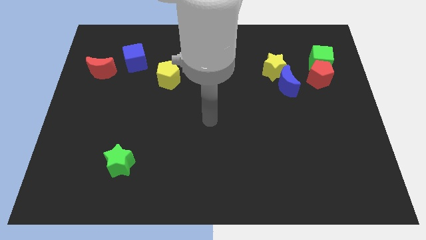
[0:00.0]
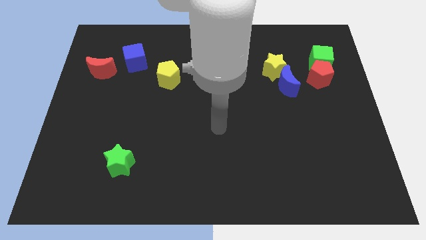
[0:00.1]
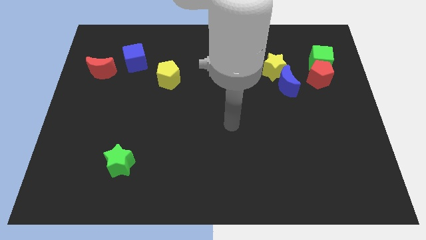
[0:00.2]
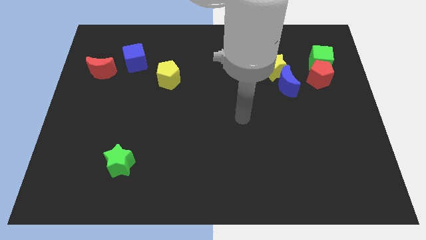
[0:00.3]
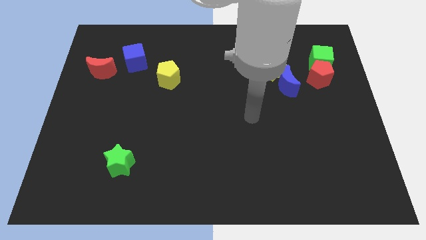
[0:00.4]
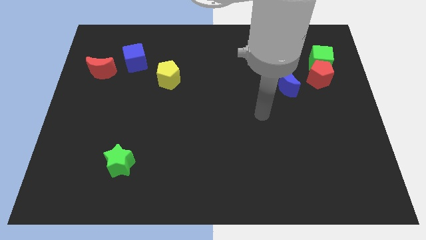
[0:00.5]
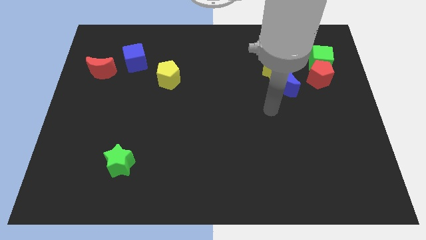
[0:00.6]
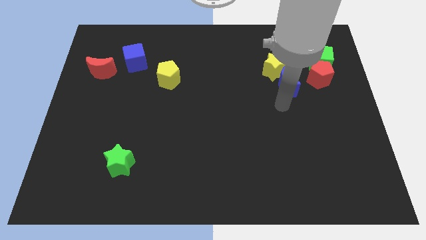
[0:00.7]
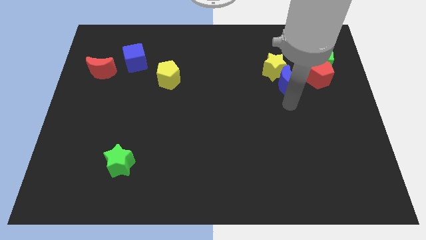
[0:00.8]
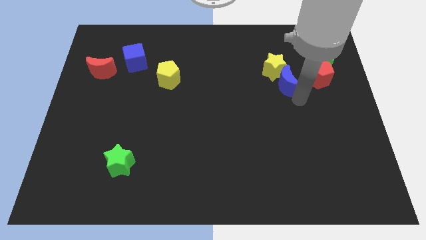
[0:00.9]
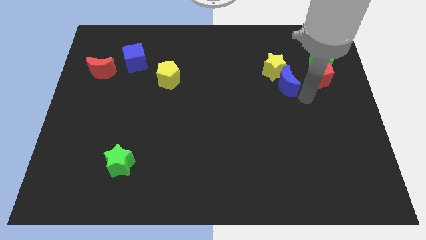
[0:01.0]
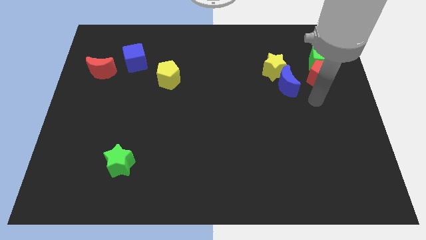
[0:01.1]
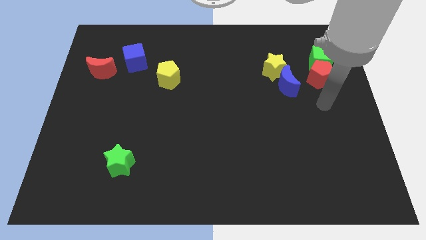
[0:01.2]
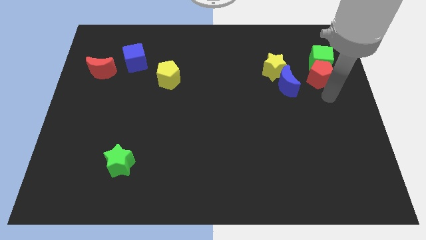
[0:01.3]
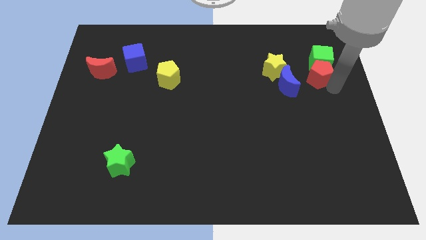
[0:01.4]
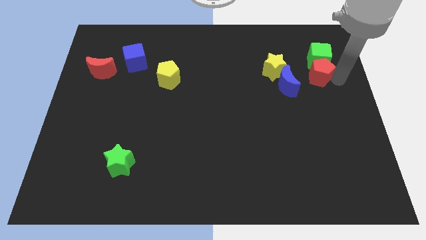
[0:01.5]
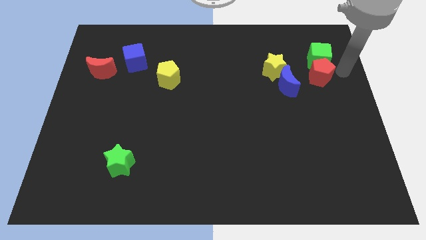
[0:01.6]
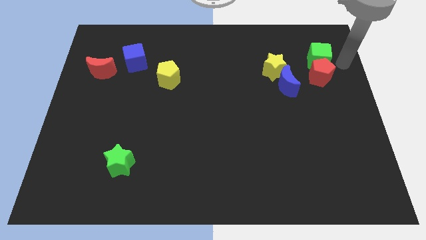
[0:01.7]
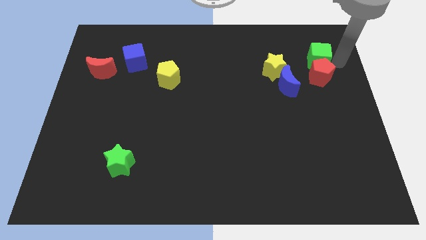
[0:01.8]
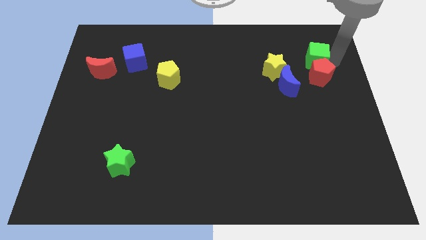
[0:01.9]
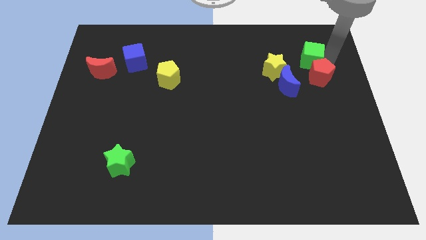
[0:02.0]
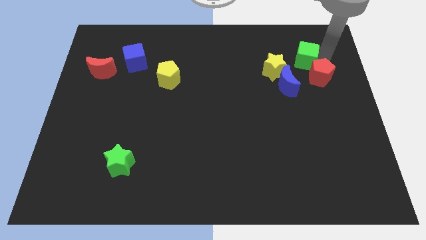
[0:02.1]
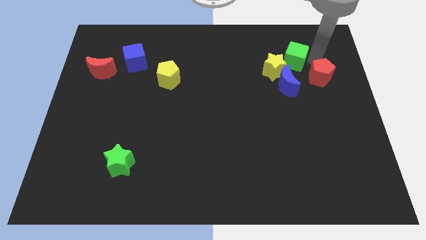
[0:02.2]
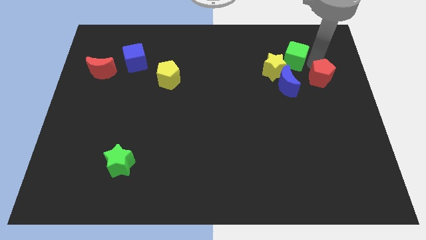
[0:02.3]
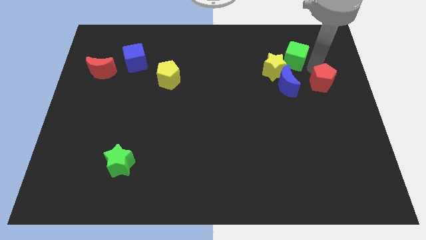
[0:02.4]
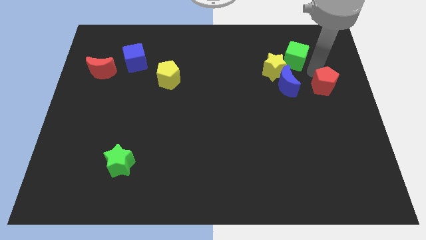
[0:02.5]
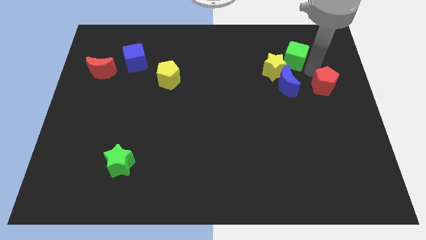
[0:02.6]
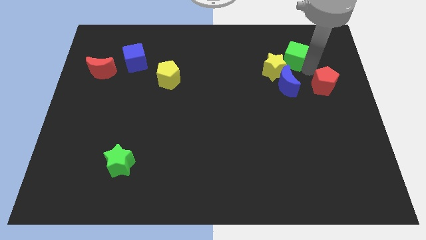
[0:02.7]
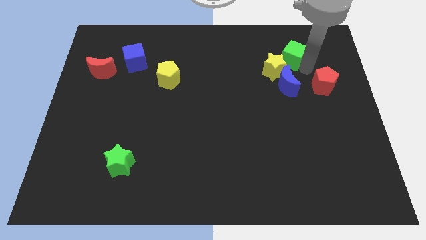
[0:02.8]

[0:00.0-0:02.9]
push the green cube to the left a bit

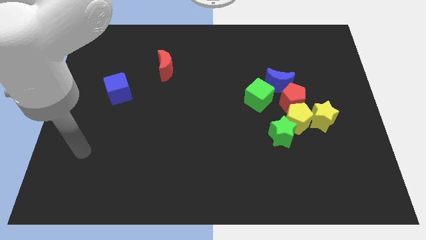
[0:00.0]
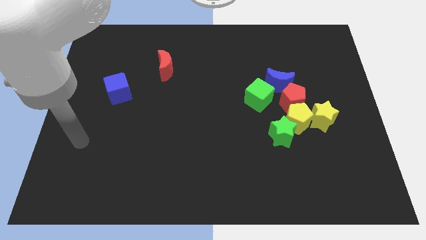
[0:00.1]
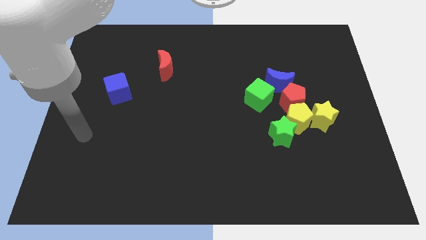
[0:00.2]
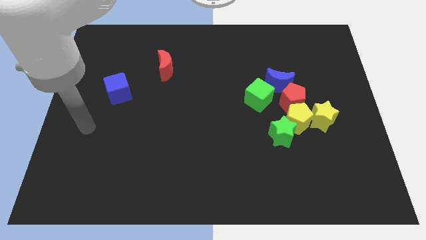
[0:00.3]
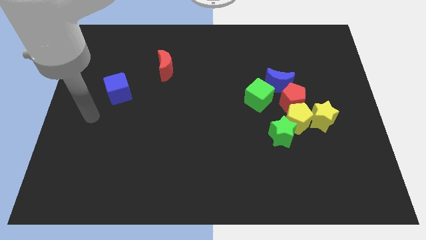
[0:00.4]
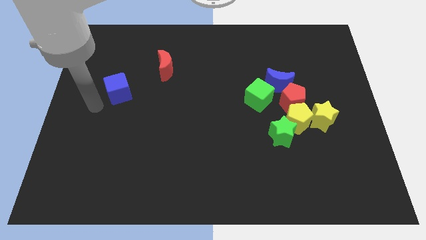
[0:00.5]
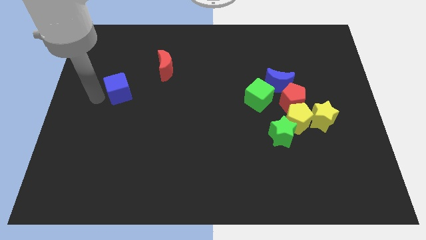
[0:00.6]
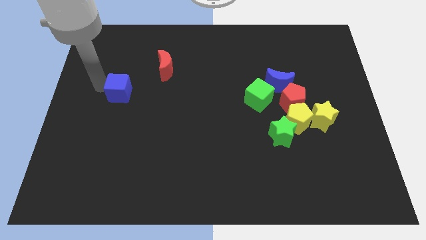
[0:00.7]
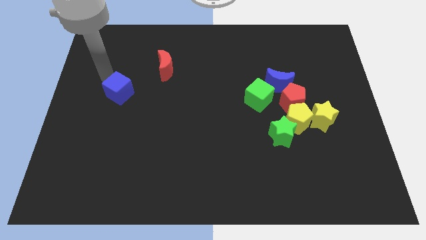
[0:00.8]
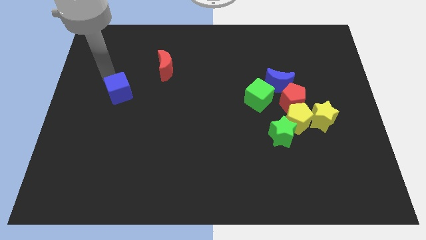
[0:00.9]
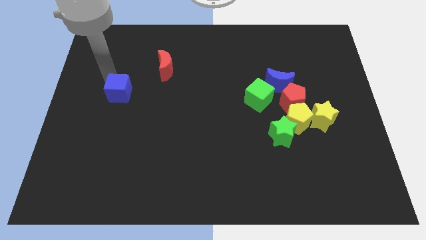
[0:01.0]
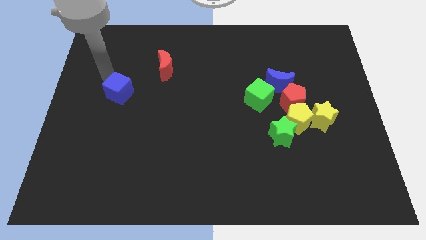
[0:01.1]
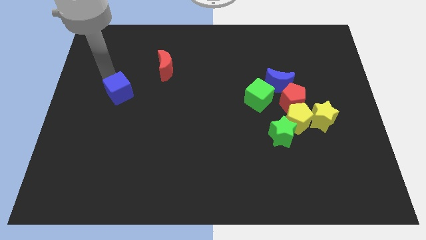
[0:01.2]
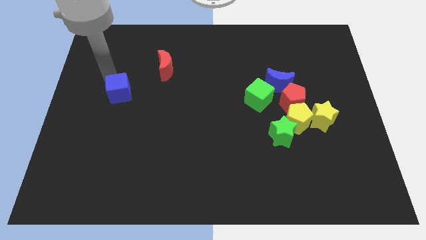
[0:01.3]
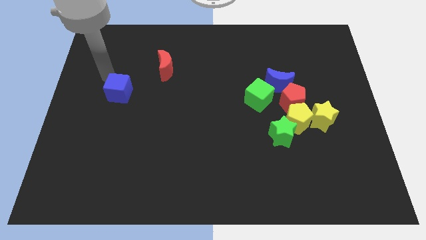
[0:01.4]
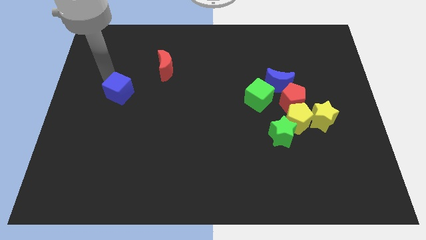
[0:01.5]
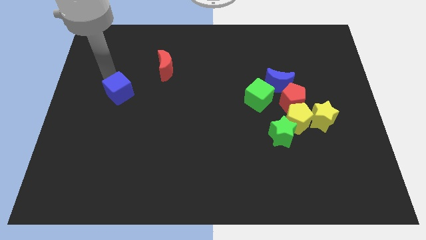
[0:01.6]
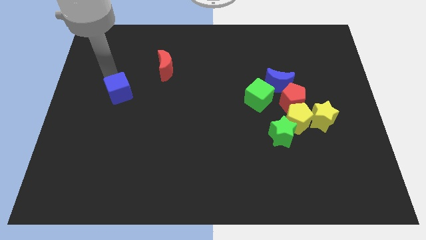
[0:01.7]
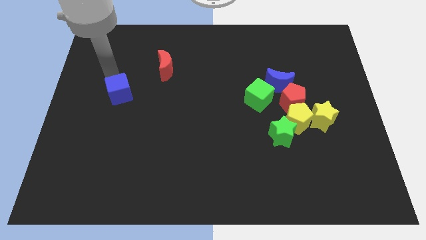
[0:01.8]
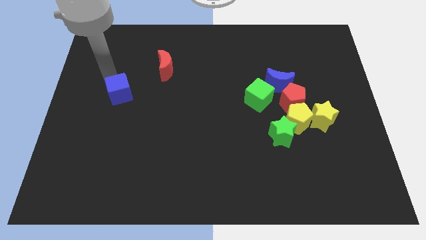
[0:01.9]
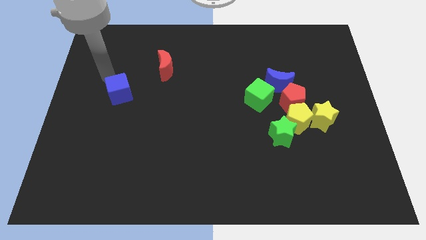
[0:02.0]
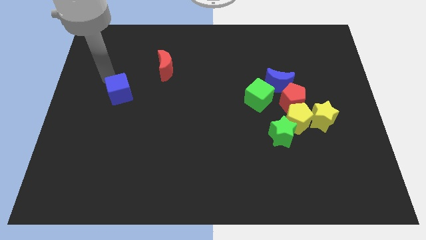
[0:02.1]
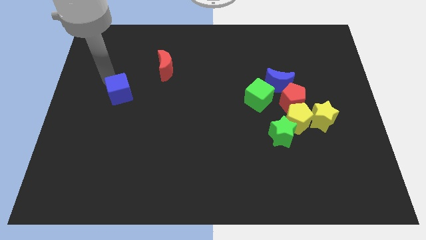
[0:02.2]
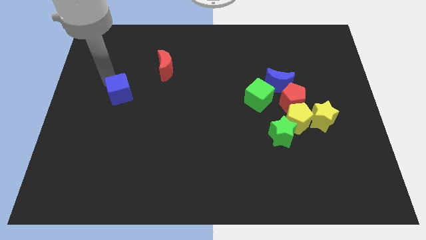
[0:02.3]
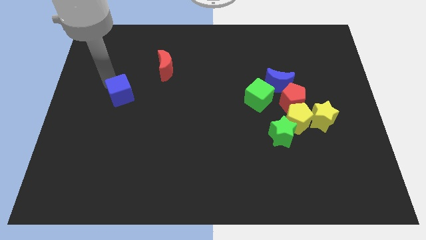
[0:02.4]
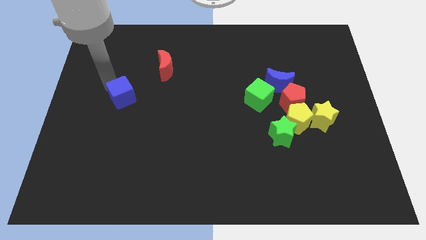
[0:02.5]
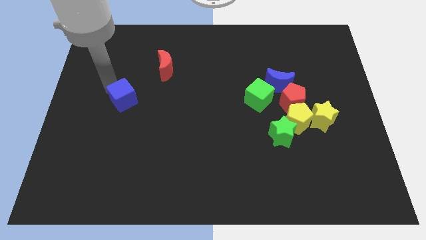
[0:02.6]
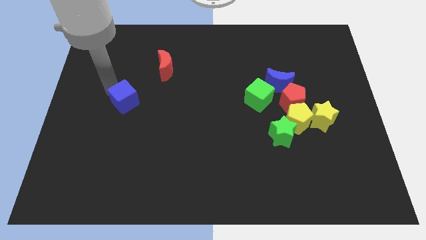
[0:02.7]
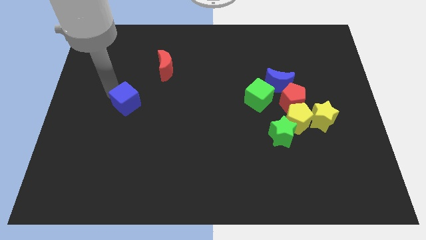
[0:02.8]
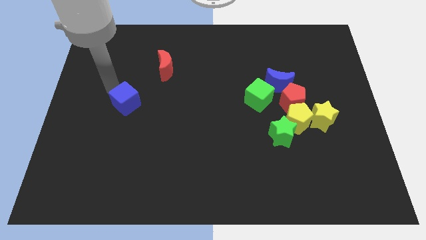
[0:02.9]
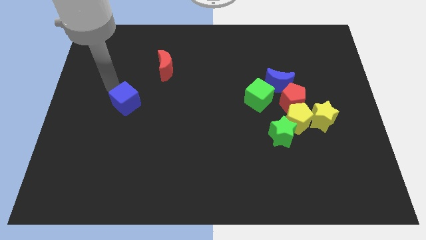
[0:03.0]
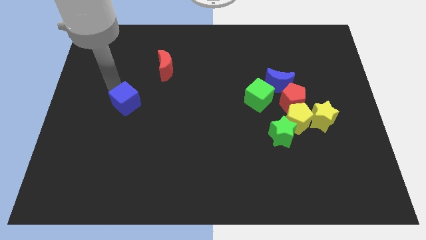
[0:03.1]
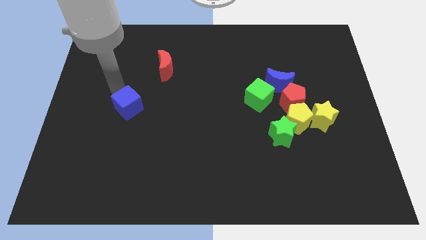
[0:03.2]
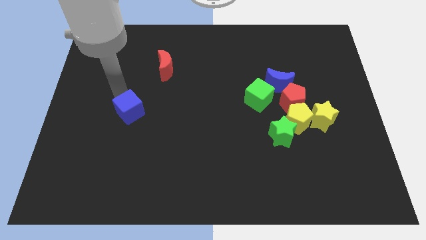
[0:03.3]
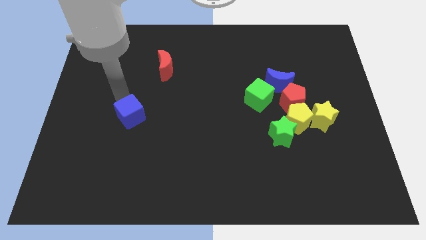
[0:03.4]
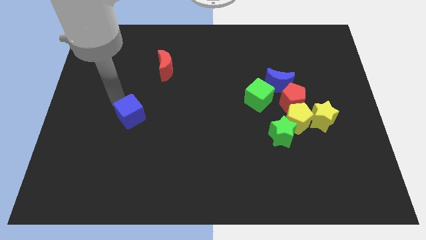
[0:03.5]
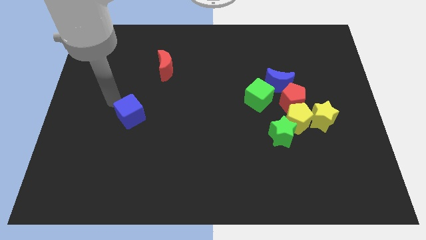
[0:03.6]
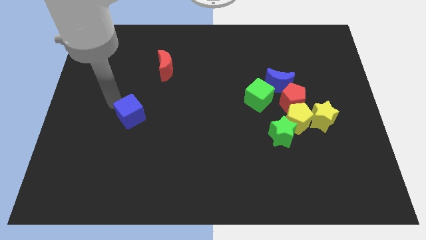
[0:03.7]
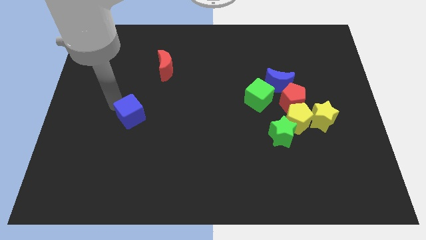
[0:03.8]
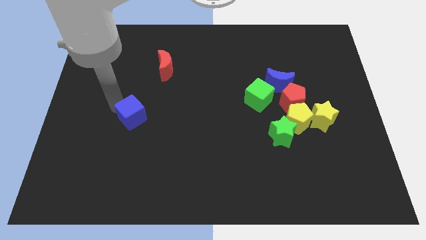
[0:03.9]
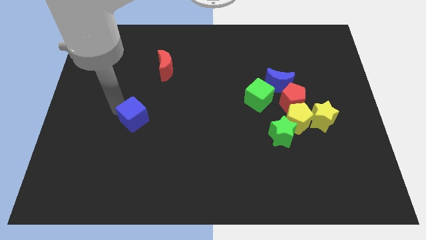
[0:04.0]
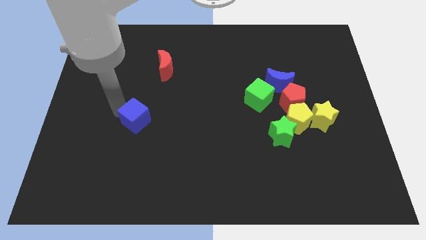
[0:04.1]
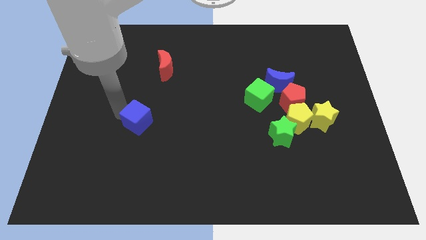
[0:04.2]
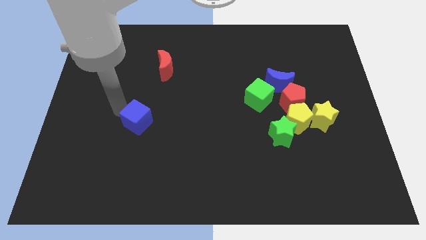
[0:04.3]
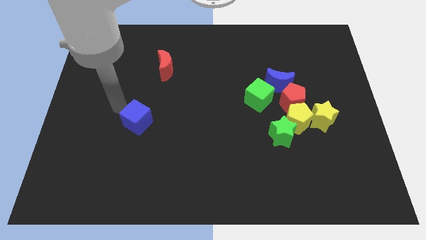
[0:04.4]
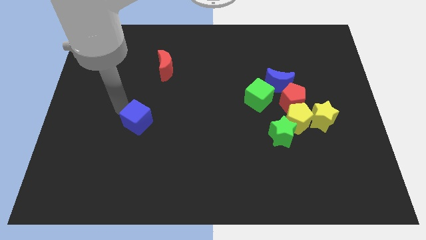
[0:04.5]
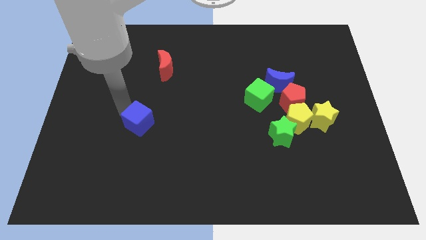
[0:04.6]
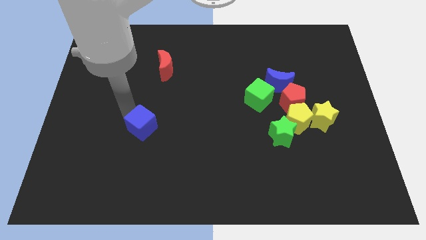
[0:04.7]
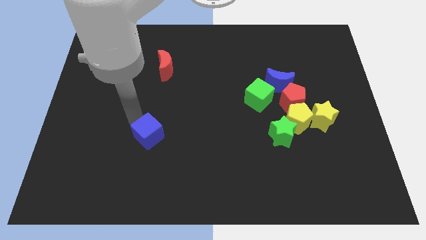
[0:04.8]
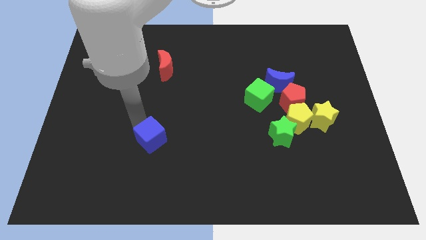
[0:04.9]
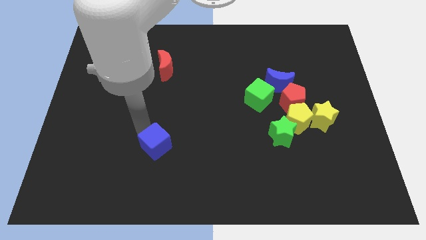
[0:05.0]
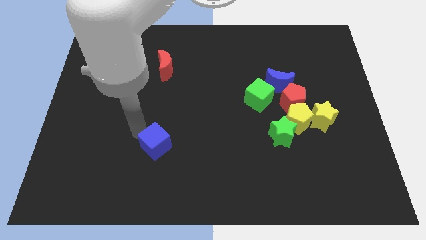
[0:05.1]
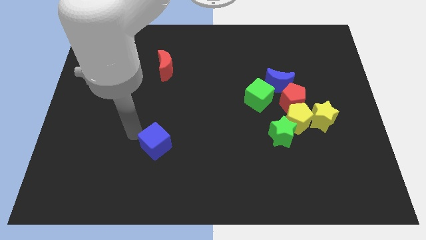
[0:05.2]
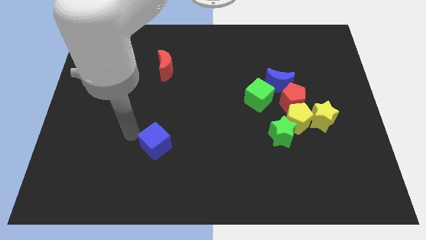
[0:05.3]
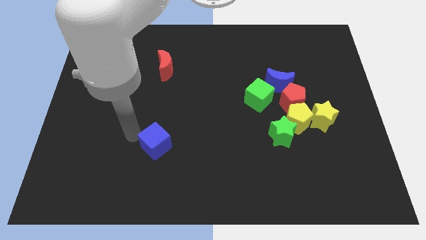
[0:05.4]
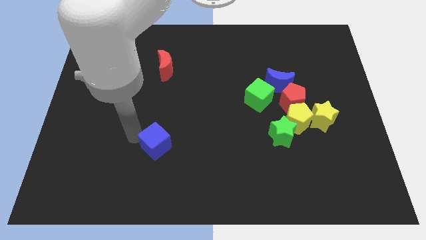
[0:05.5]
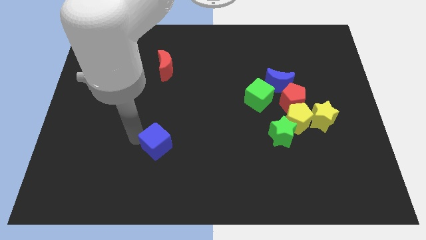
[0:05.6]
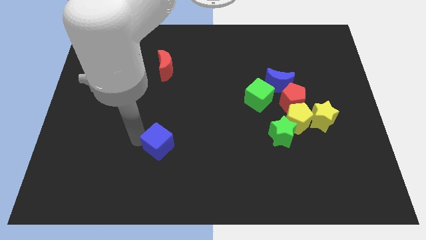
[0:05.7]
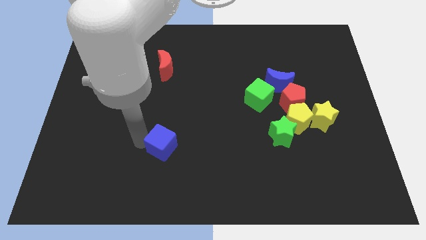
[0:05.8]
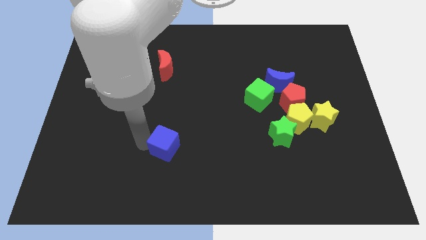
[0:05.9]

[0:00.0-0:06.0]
slide the blue cube downwards and right diagonally
